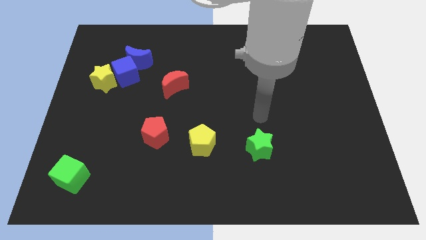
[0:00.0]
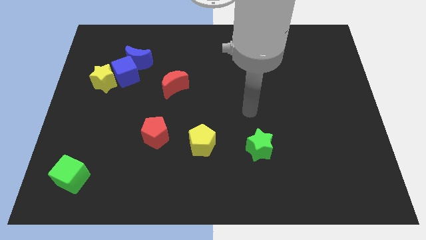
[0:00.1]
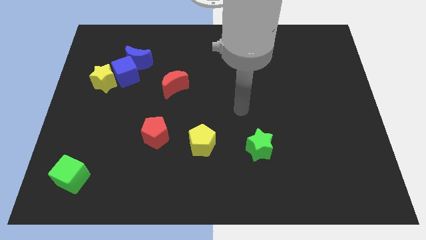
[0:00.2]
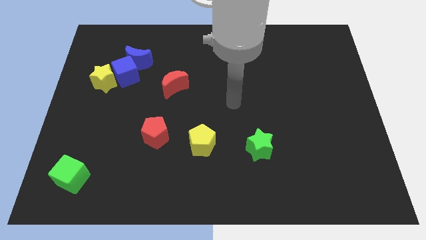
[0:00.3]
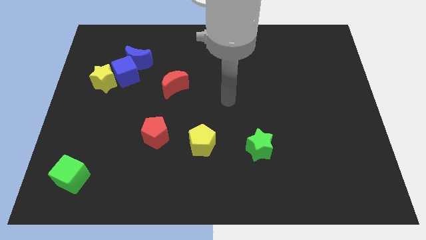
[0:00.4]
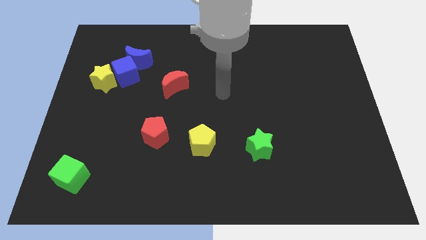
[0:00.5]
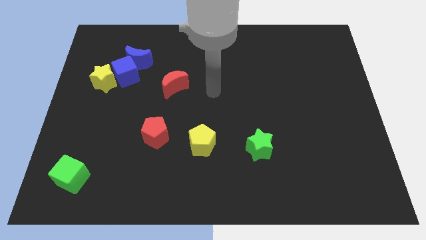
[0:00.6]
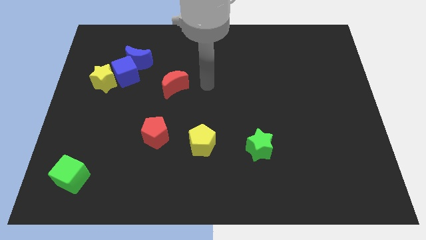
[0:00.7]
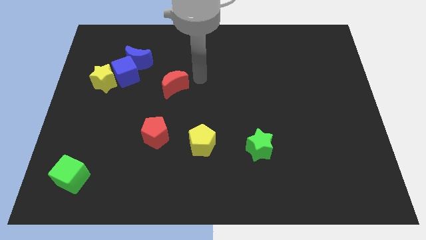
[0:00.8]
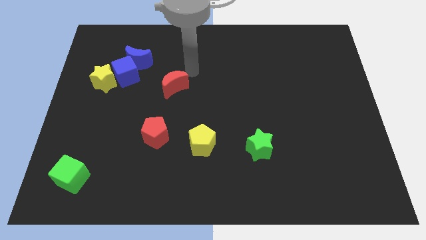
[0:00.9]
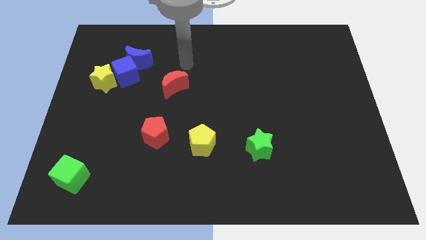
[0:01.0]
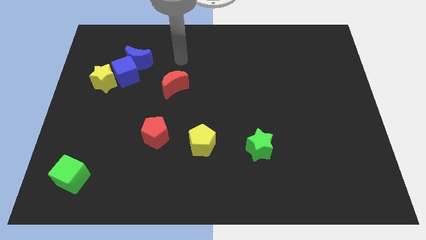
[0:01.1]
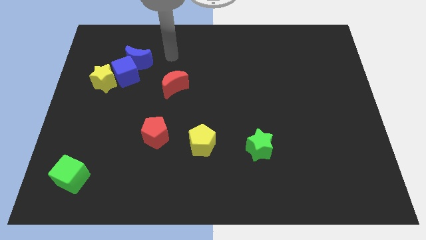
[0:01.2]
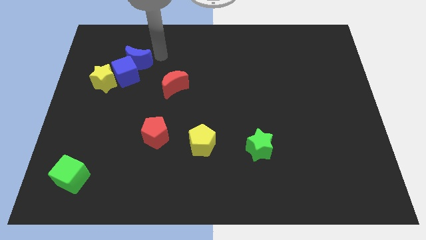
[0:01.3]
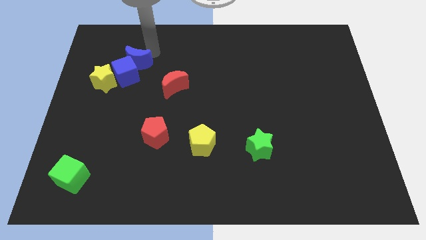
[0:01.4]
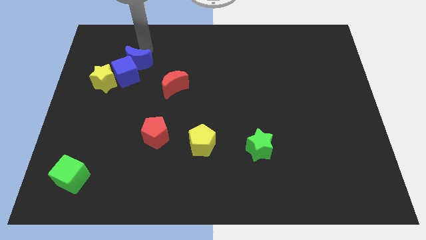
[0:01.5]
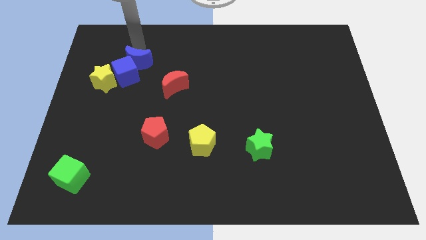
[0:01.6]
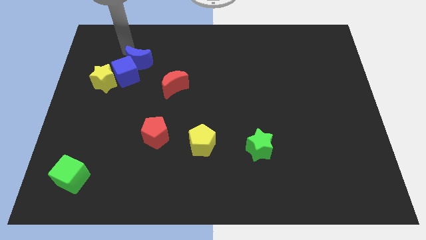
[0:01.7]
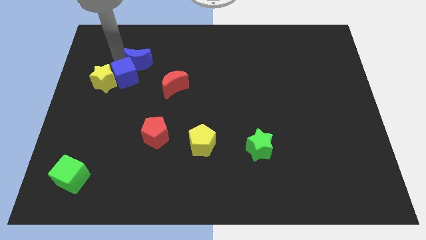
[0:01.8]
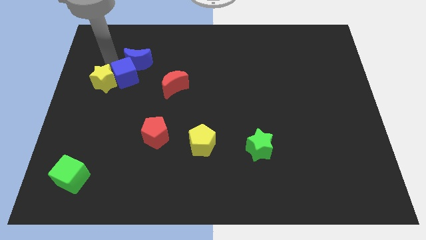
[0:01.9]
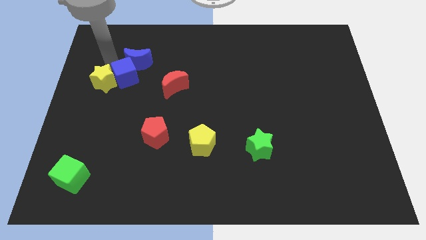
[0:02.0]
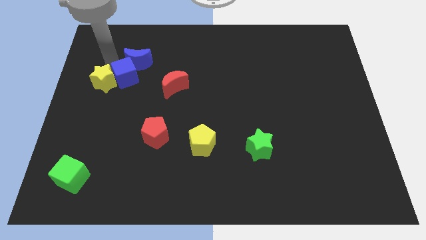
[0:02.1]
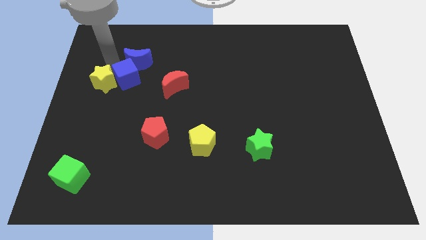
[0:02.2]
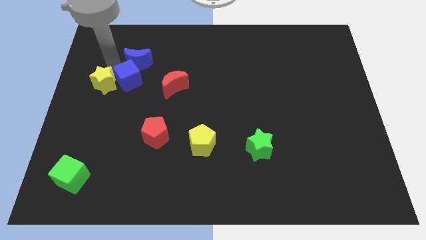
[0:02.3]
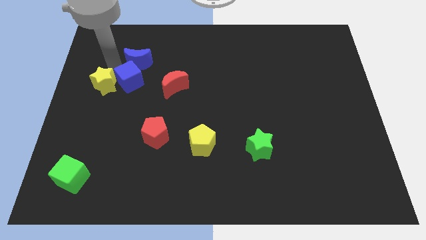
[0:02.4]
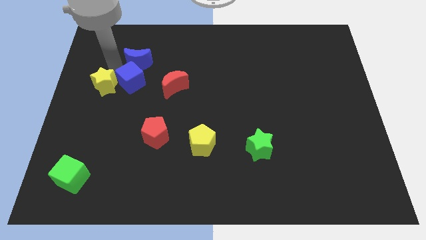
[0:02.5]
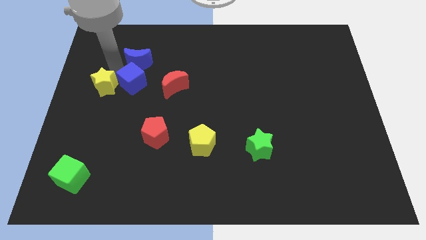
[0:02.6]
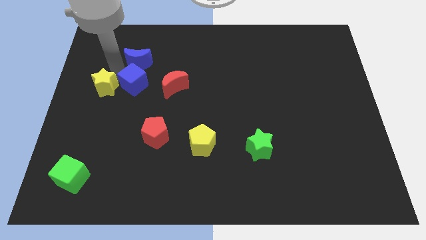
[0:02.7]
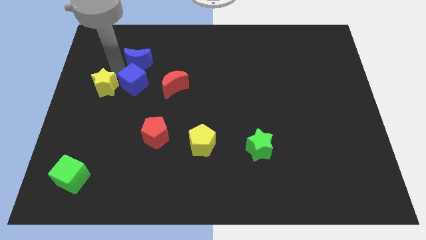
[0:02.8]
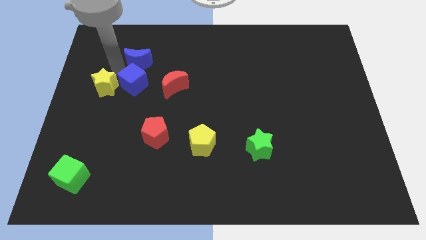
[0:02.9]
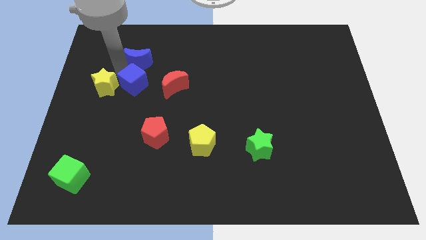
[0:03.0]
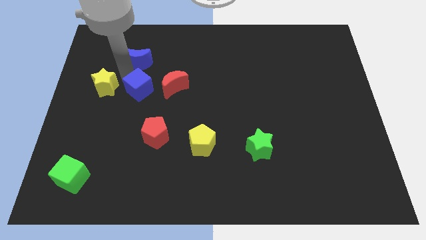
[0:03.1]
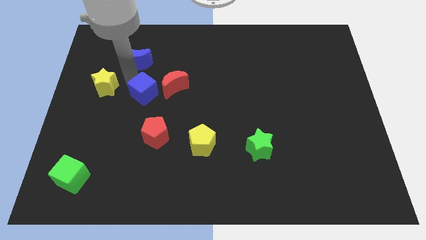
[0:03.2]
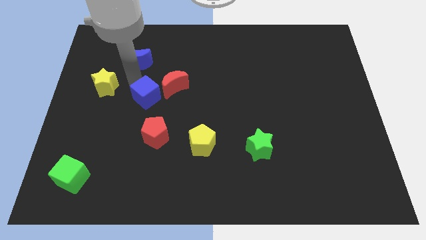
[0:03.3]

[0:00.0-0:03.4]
move the blue cube away from the blue moon and yellow star

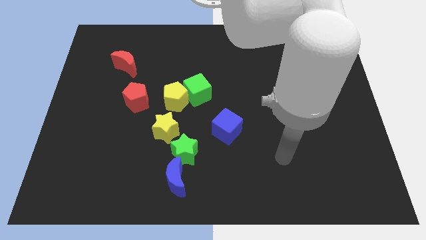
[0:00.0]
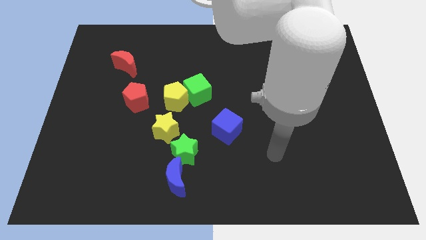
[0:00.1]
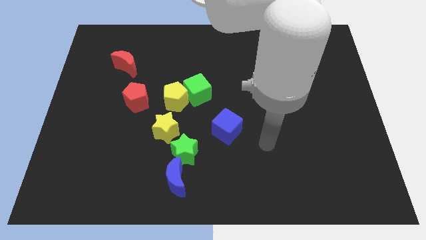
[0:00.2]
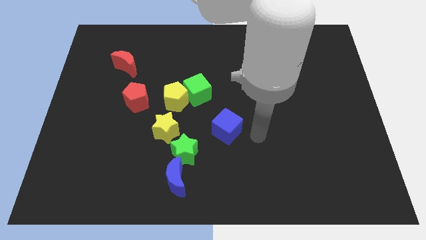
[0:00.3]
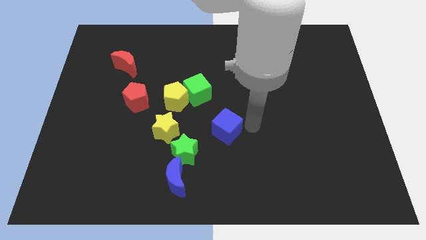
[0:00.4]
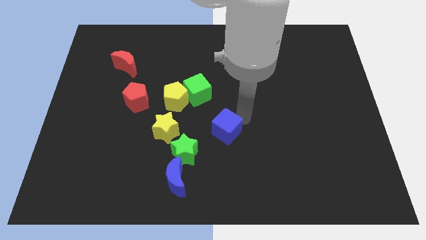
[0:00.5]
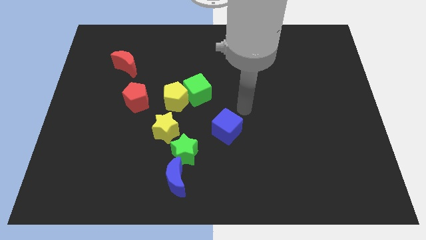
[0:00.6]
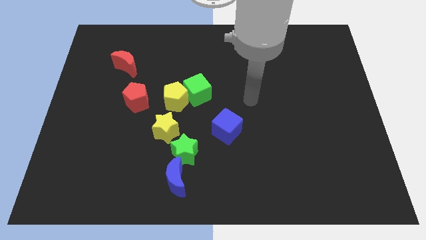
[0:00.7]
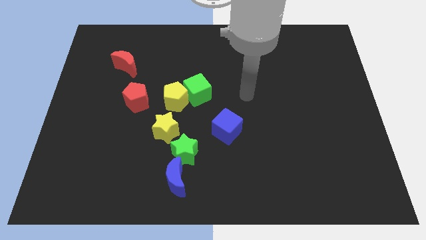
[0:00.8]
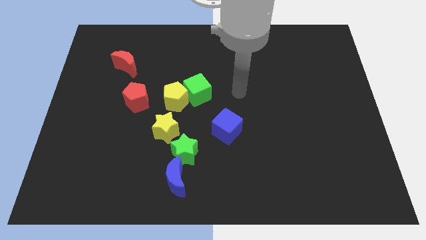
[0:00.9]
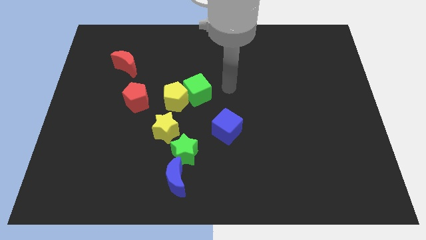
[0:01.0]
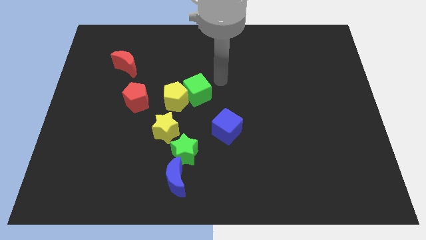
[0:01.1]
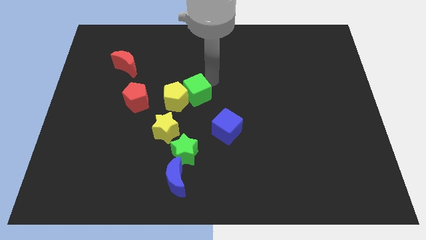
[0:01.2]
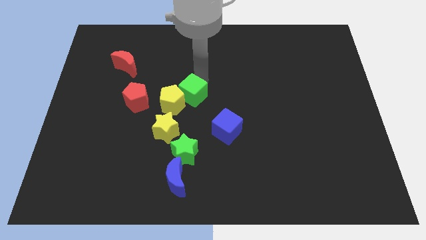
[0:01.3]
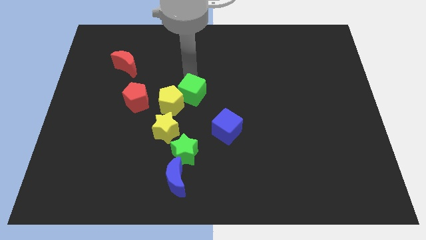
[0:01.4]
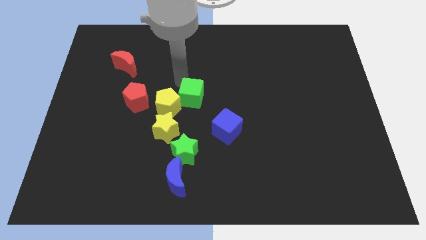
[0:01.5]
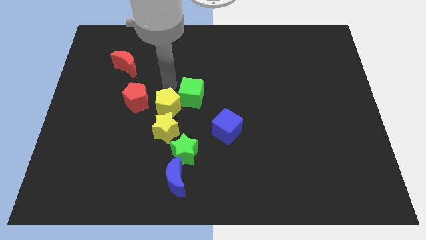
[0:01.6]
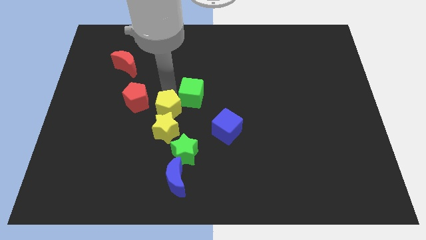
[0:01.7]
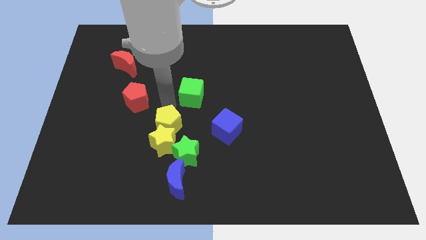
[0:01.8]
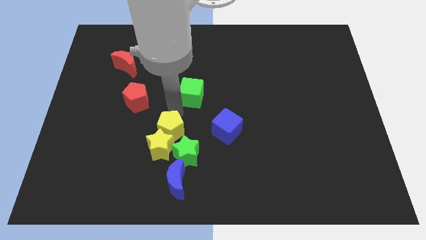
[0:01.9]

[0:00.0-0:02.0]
pull the green cube apart from the yellow pentagon

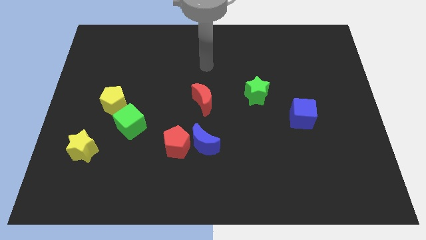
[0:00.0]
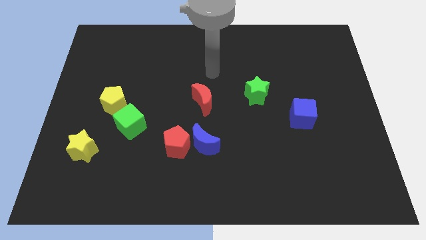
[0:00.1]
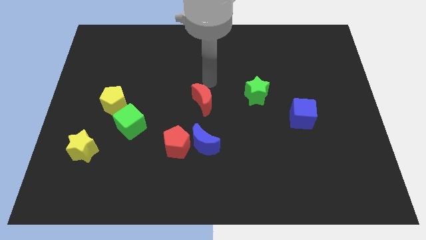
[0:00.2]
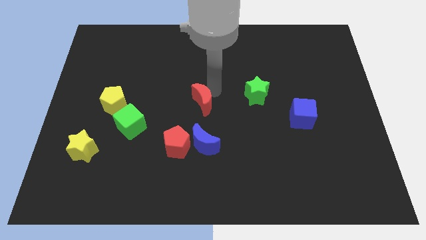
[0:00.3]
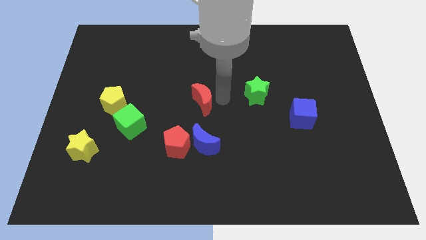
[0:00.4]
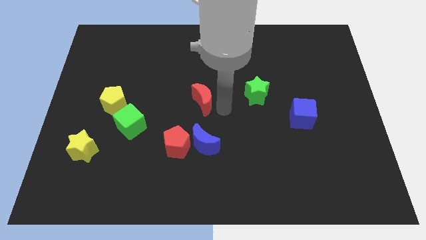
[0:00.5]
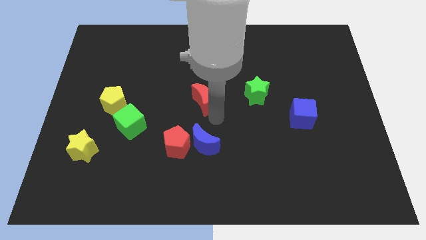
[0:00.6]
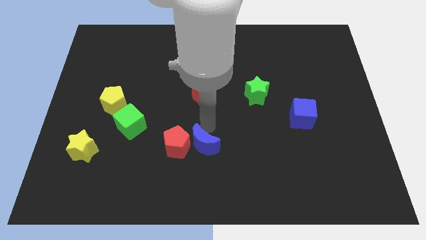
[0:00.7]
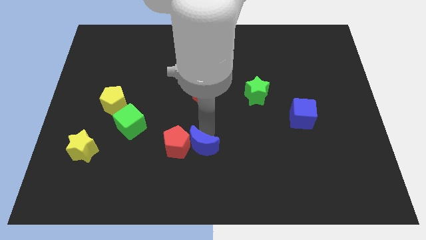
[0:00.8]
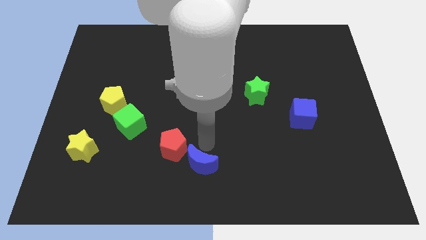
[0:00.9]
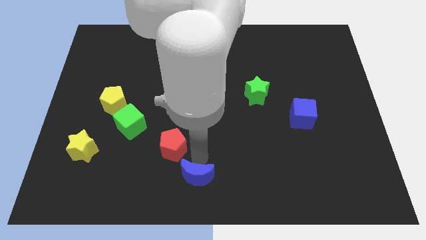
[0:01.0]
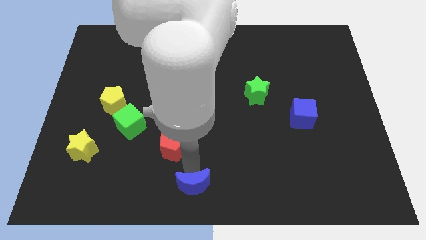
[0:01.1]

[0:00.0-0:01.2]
pull the red pentagon apart from the blue moon

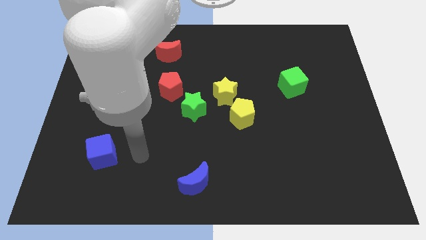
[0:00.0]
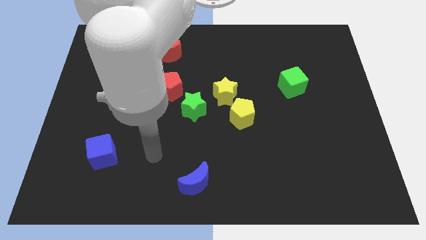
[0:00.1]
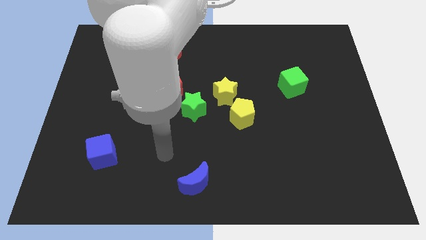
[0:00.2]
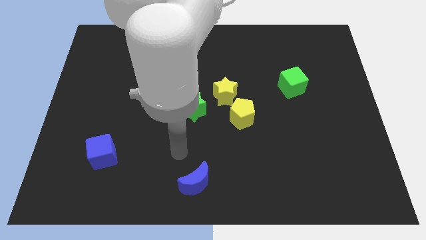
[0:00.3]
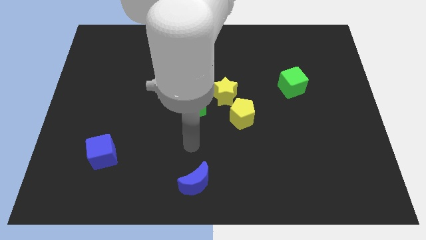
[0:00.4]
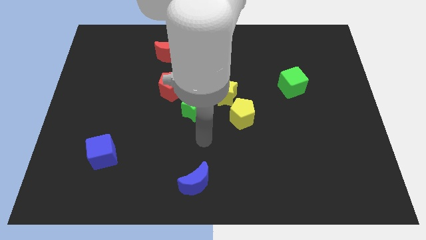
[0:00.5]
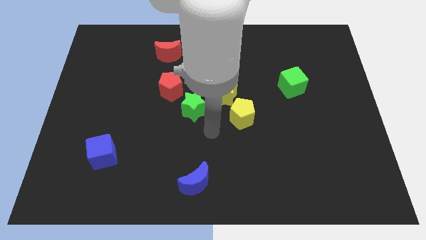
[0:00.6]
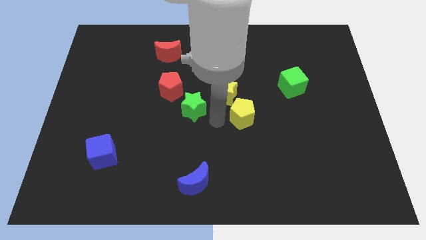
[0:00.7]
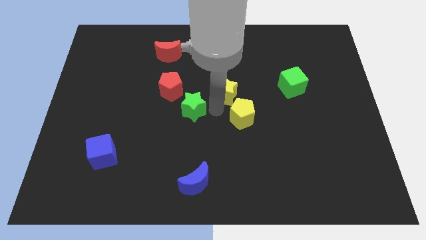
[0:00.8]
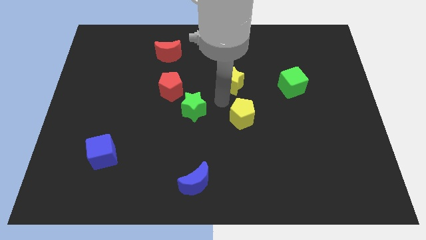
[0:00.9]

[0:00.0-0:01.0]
separate the yellow pentagon from the yellow star

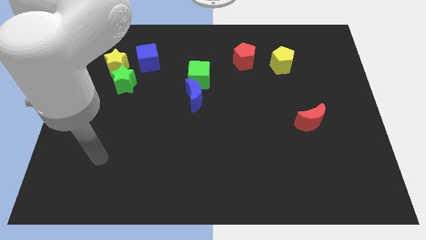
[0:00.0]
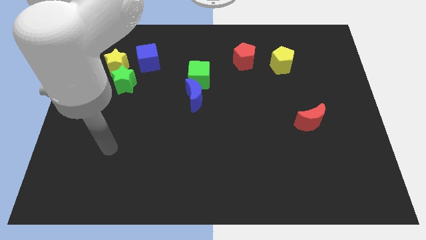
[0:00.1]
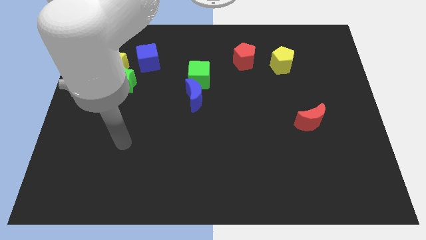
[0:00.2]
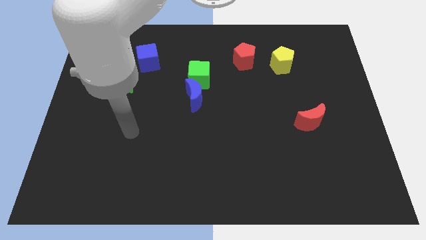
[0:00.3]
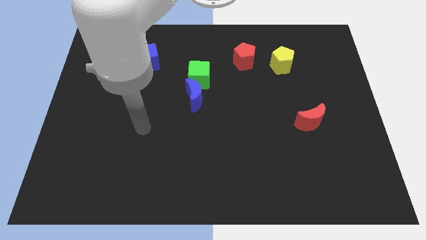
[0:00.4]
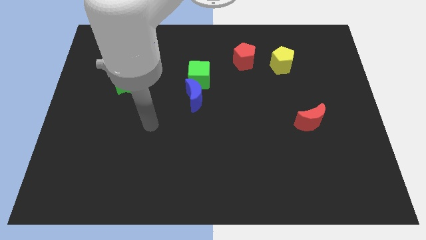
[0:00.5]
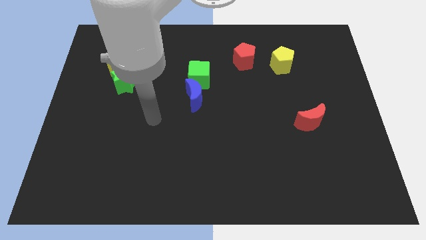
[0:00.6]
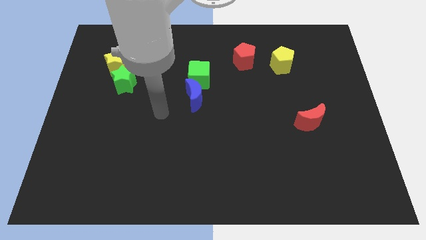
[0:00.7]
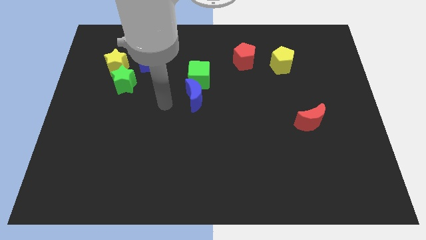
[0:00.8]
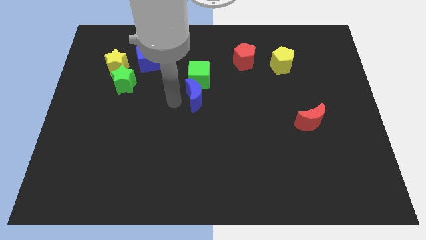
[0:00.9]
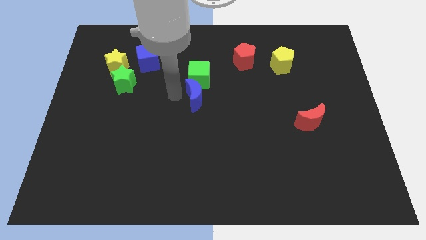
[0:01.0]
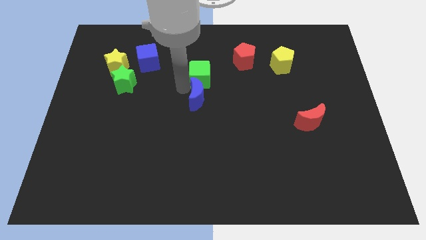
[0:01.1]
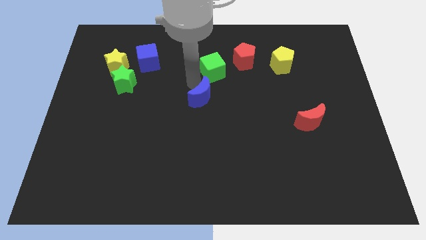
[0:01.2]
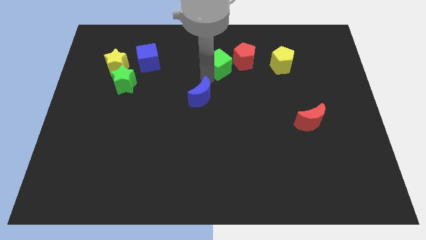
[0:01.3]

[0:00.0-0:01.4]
pull the blue moon apart from the green cube
